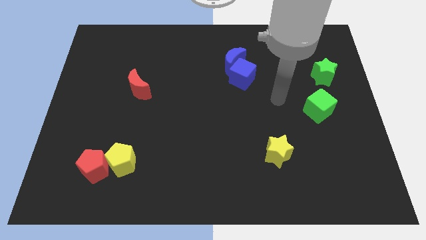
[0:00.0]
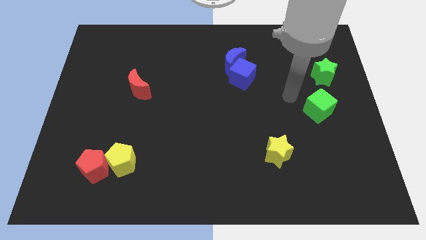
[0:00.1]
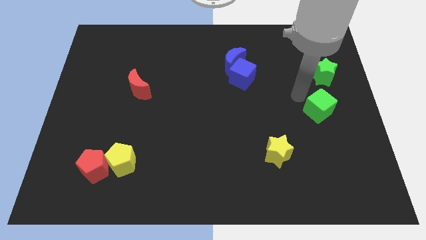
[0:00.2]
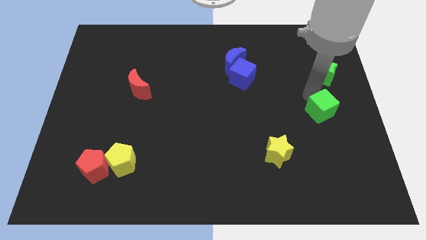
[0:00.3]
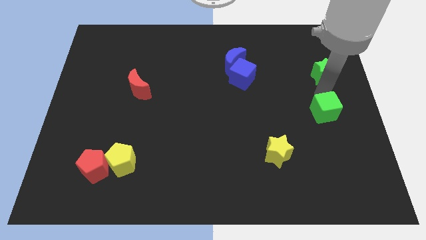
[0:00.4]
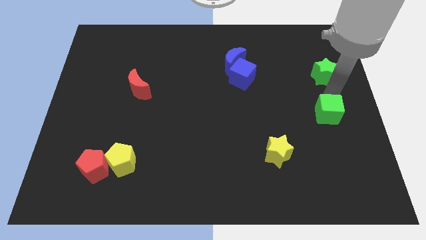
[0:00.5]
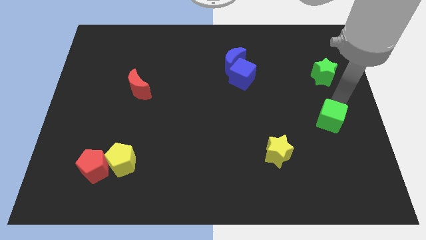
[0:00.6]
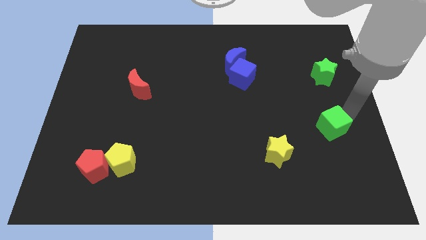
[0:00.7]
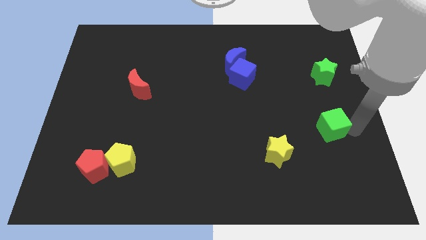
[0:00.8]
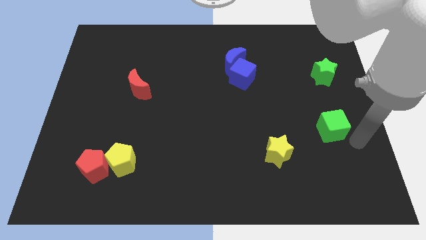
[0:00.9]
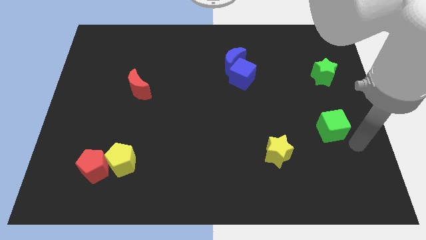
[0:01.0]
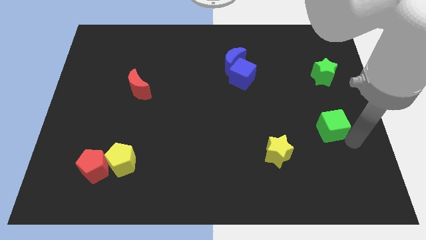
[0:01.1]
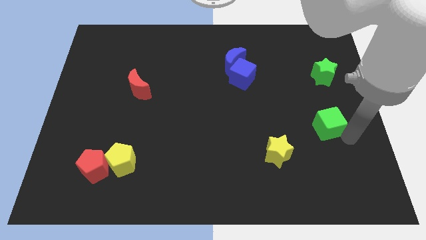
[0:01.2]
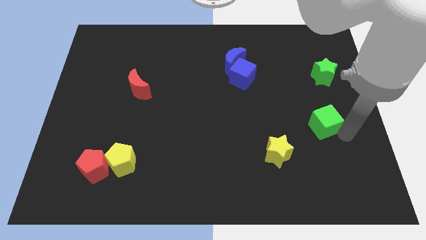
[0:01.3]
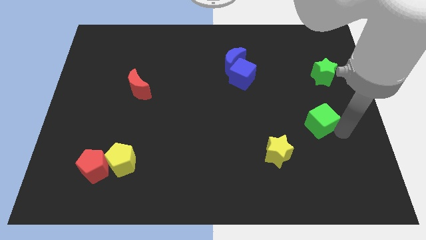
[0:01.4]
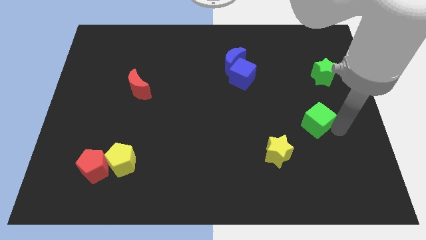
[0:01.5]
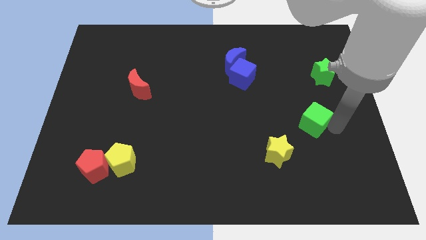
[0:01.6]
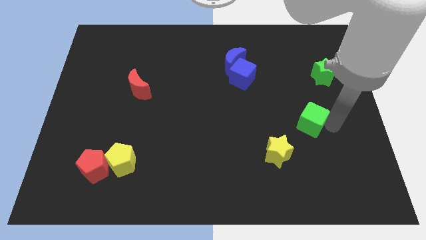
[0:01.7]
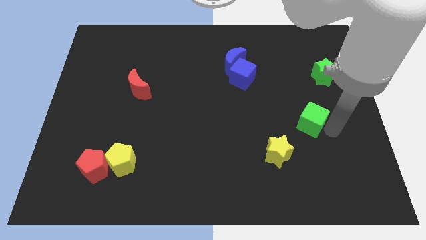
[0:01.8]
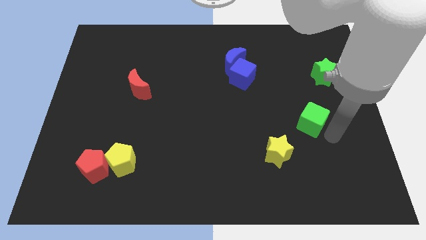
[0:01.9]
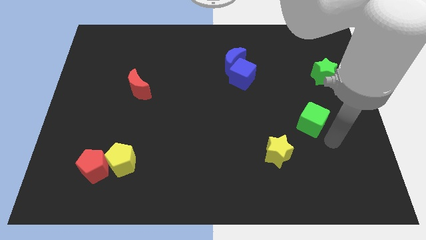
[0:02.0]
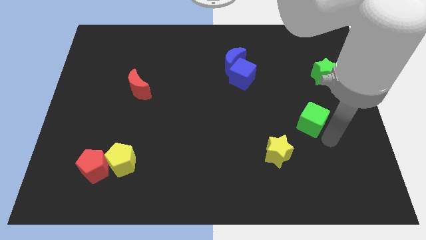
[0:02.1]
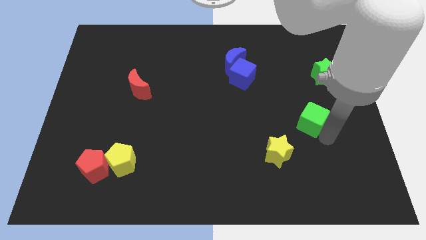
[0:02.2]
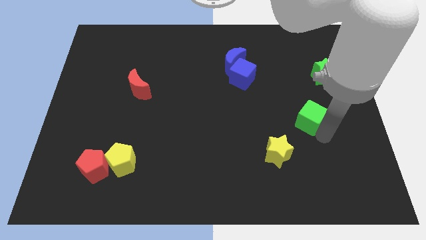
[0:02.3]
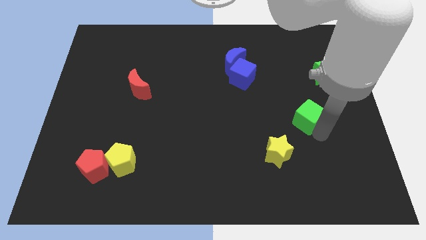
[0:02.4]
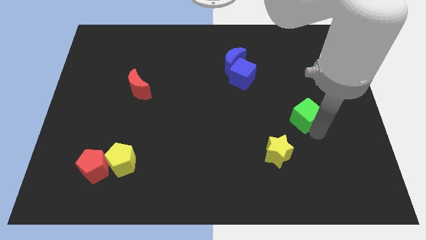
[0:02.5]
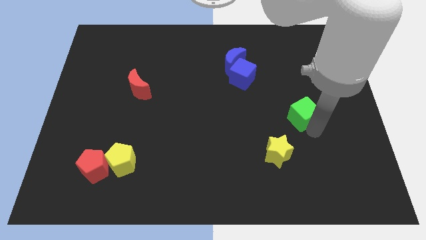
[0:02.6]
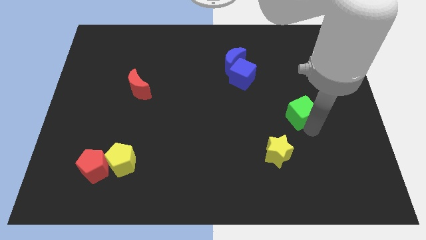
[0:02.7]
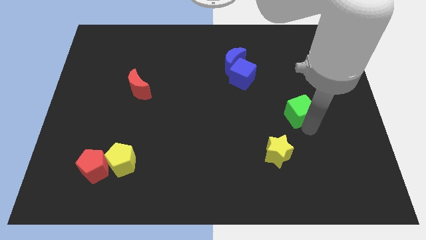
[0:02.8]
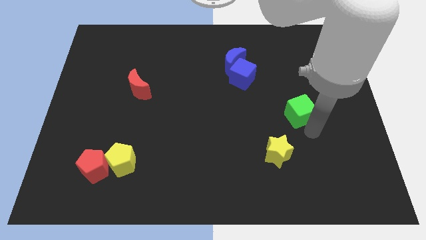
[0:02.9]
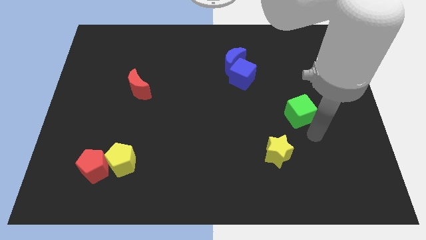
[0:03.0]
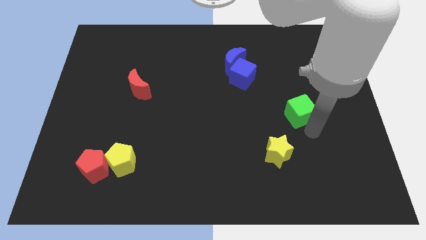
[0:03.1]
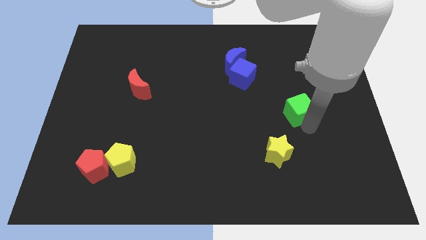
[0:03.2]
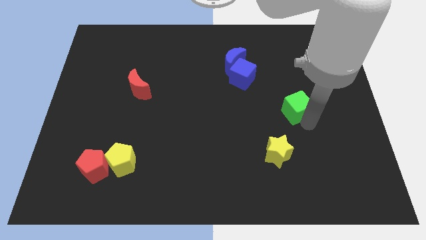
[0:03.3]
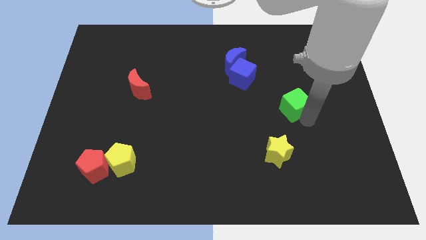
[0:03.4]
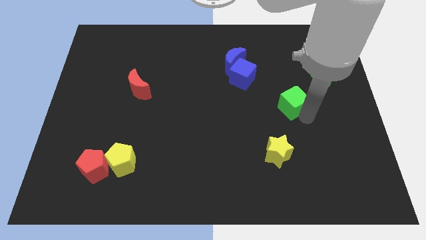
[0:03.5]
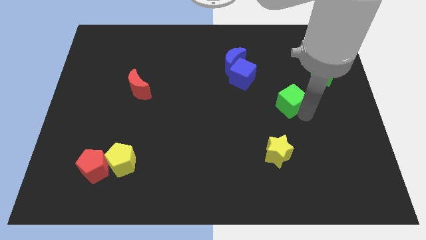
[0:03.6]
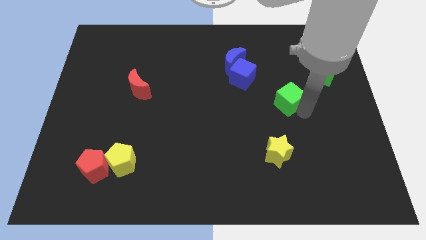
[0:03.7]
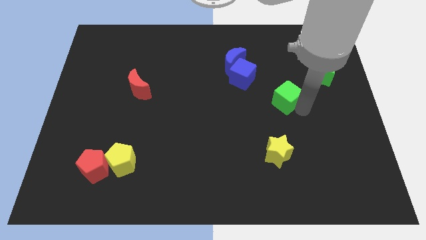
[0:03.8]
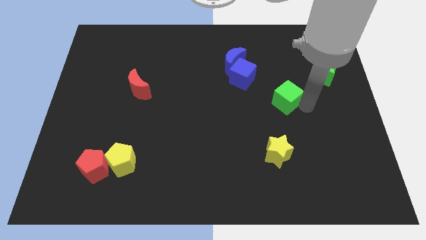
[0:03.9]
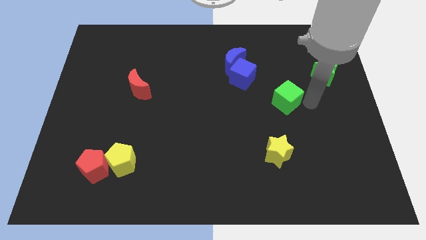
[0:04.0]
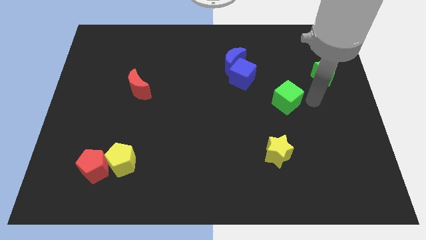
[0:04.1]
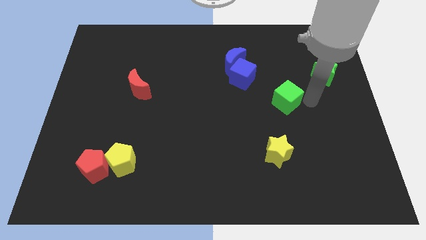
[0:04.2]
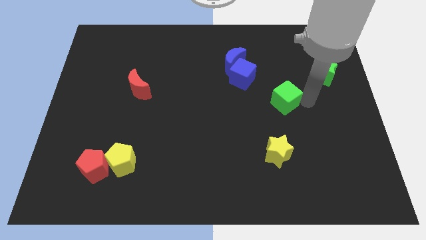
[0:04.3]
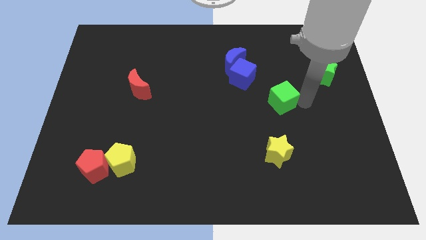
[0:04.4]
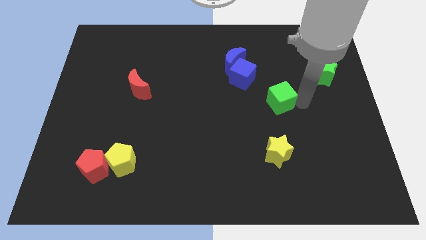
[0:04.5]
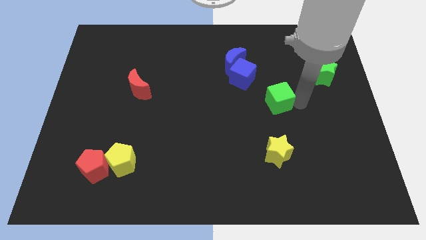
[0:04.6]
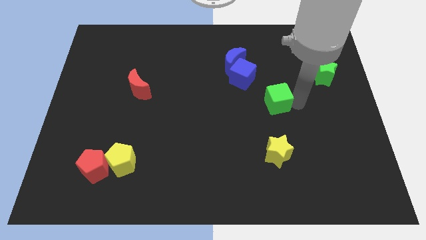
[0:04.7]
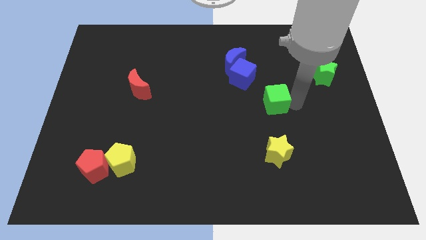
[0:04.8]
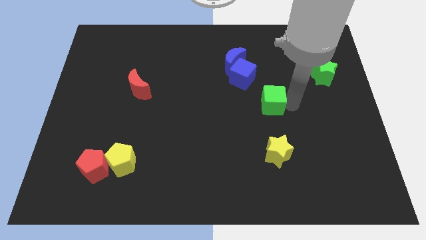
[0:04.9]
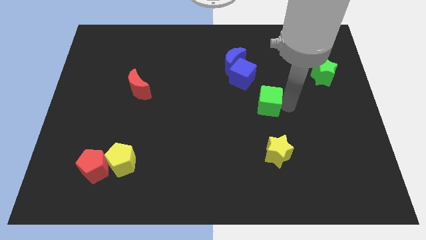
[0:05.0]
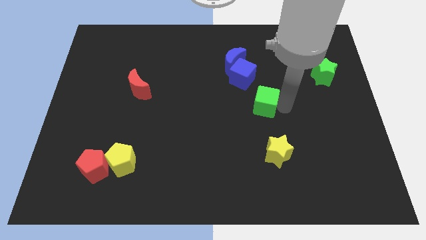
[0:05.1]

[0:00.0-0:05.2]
push the green cube to the center of the board
